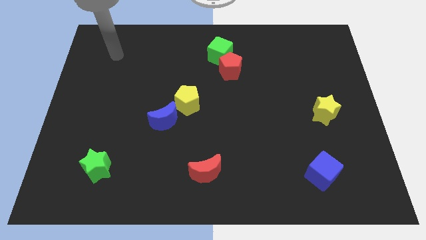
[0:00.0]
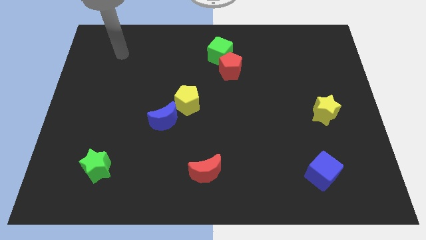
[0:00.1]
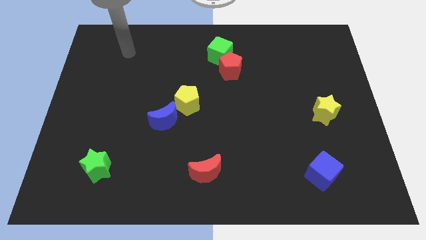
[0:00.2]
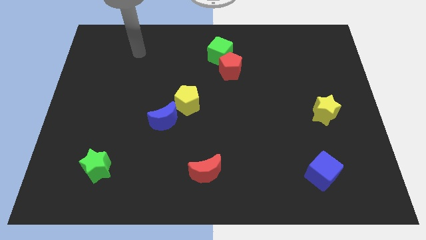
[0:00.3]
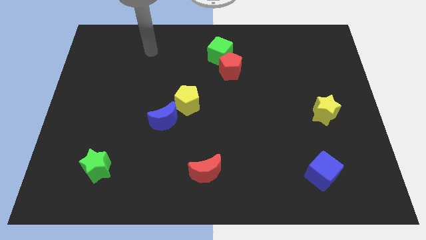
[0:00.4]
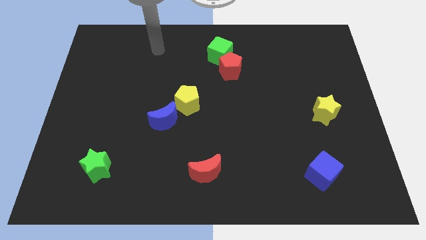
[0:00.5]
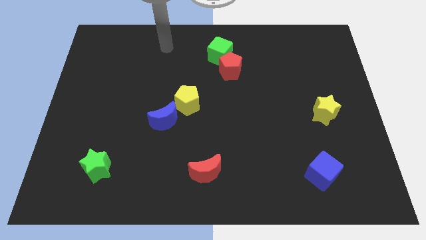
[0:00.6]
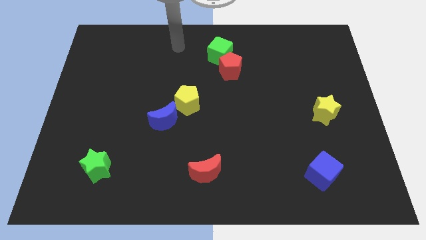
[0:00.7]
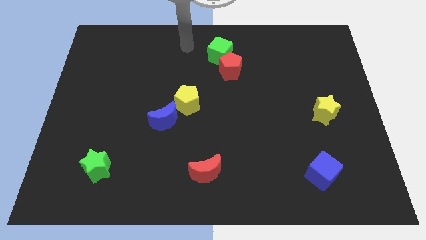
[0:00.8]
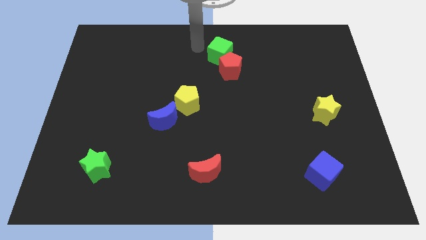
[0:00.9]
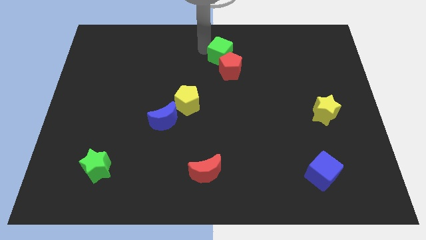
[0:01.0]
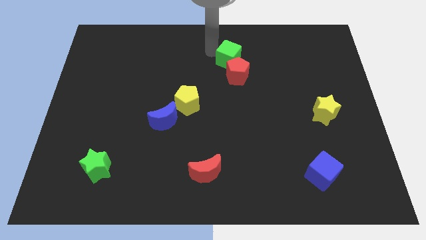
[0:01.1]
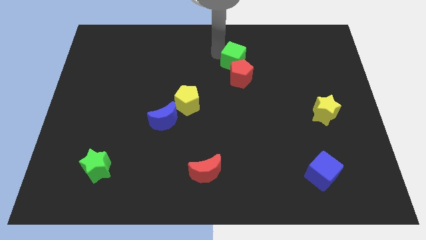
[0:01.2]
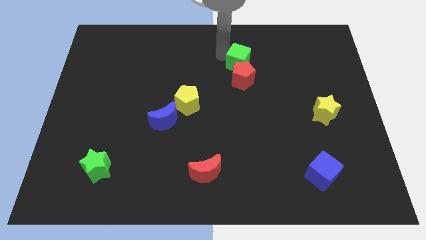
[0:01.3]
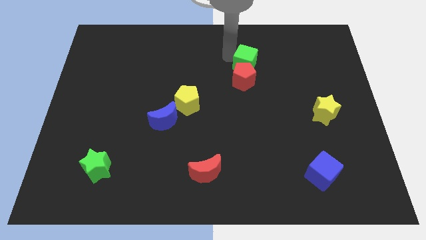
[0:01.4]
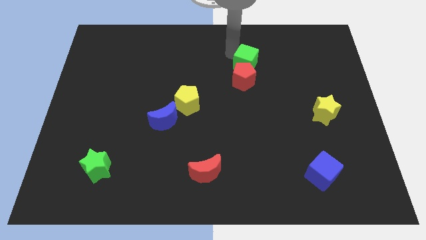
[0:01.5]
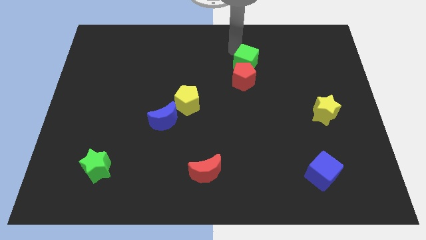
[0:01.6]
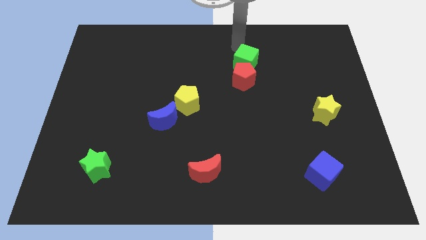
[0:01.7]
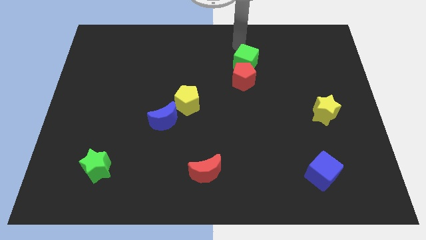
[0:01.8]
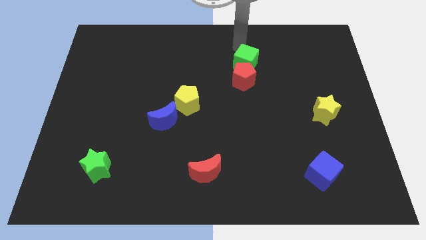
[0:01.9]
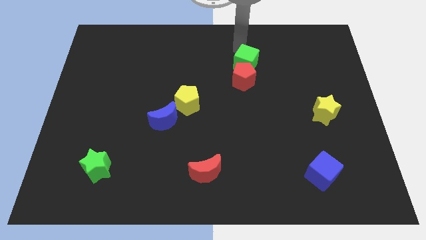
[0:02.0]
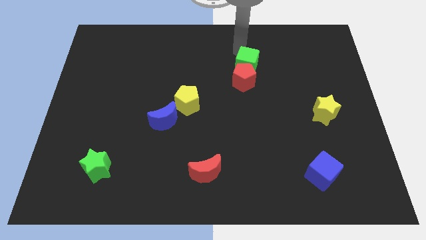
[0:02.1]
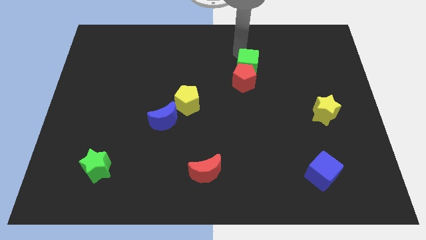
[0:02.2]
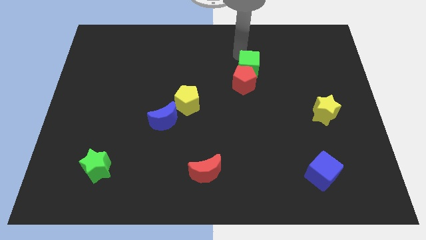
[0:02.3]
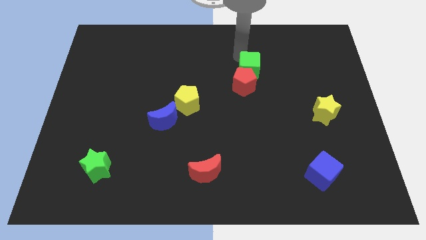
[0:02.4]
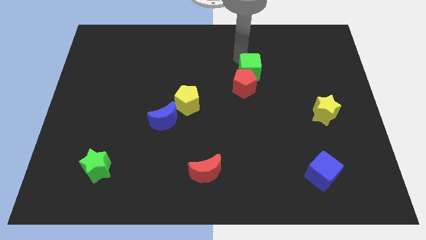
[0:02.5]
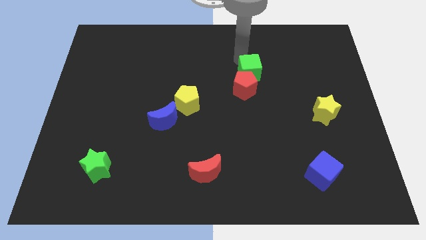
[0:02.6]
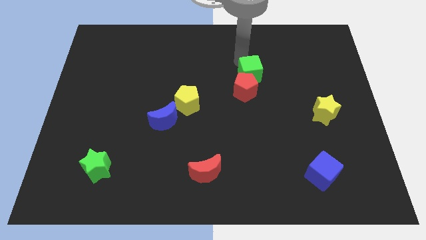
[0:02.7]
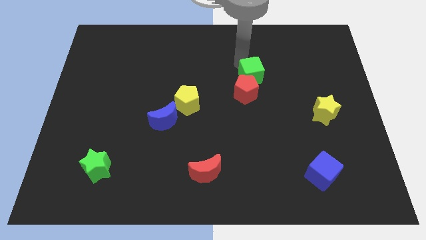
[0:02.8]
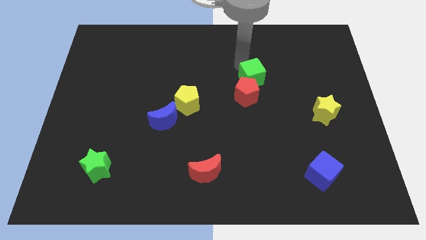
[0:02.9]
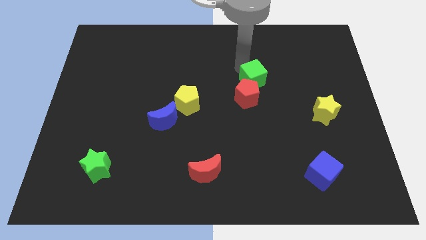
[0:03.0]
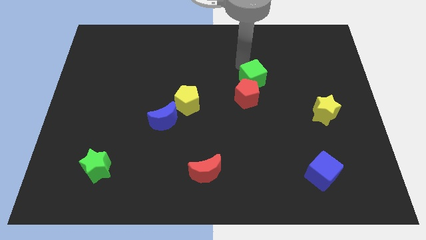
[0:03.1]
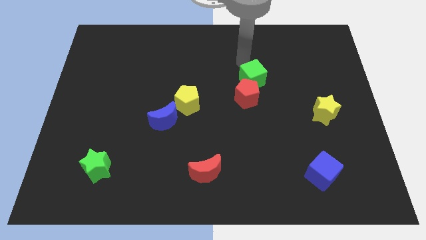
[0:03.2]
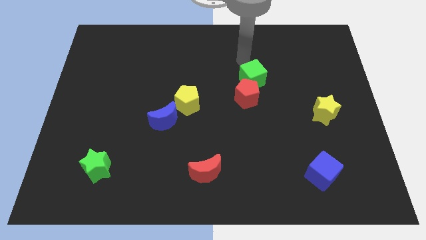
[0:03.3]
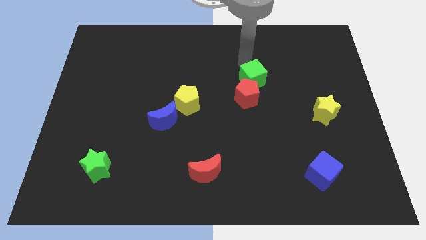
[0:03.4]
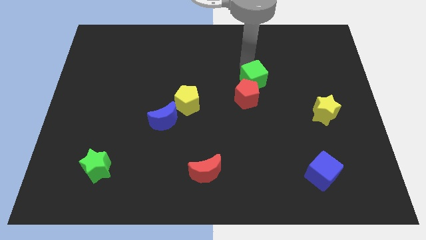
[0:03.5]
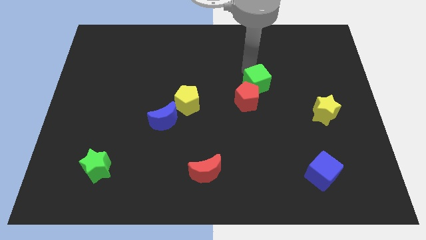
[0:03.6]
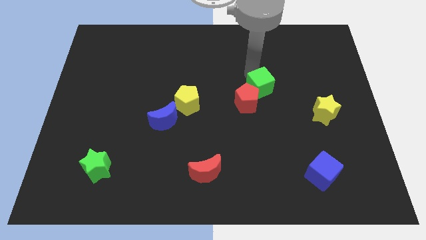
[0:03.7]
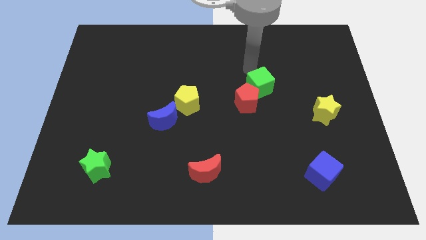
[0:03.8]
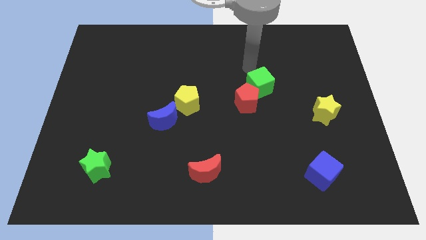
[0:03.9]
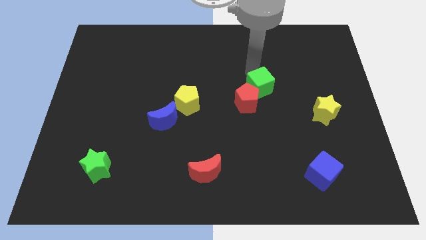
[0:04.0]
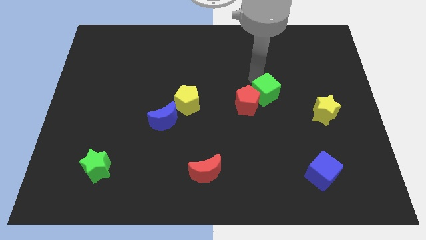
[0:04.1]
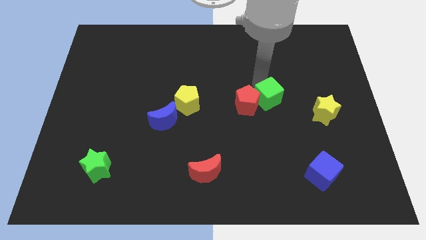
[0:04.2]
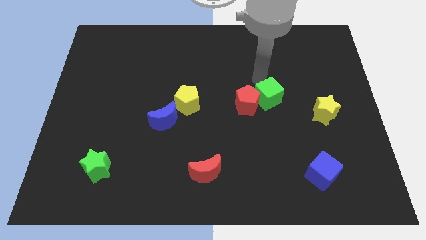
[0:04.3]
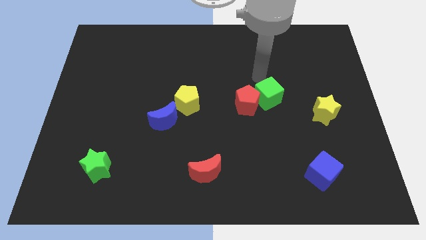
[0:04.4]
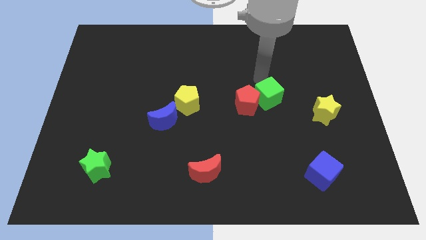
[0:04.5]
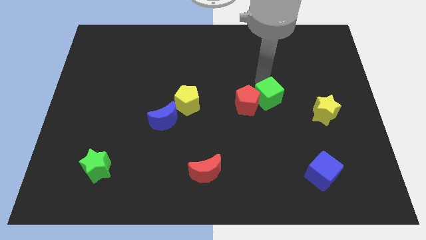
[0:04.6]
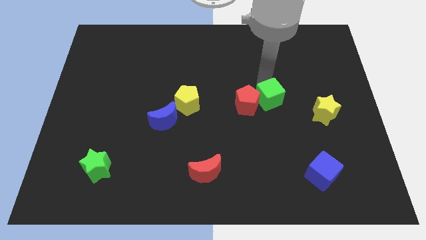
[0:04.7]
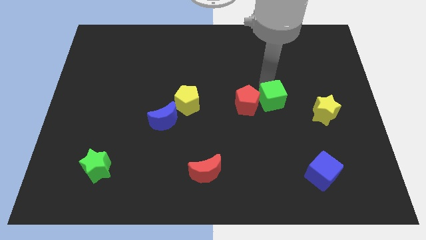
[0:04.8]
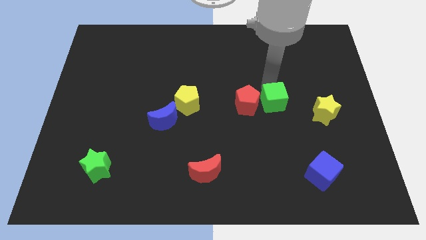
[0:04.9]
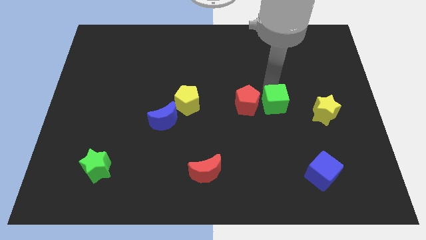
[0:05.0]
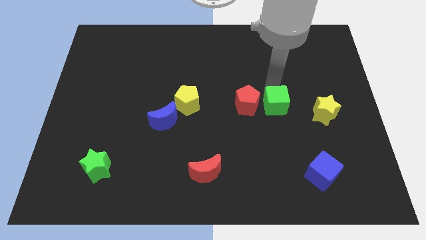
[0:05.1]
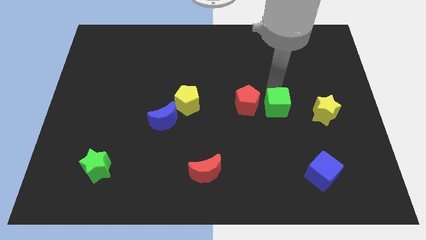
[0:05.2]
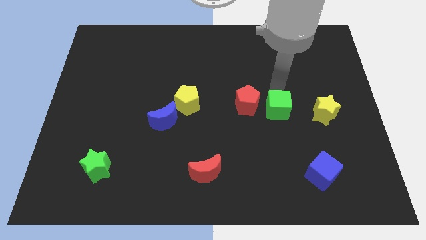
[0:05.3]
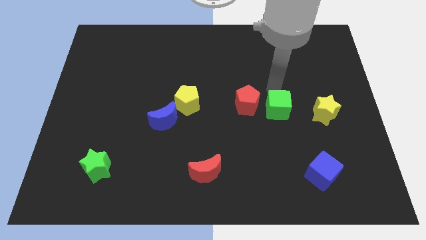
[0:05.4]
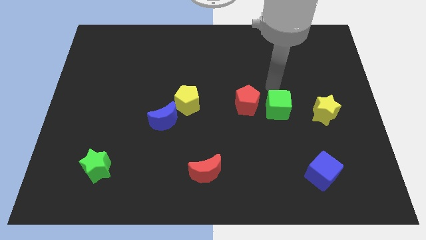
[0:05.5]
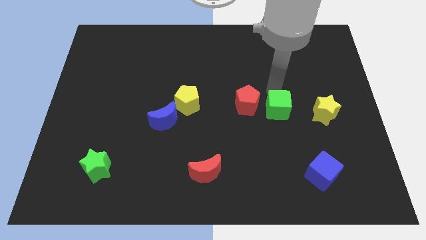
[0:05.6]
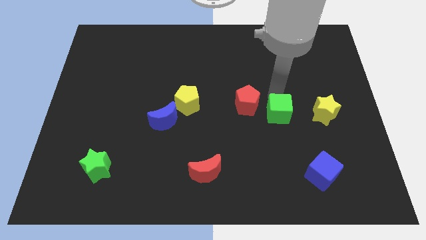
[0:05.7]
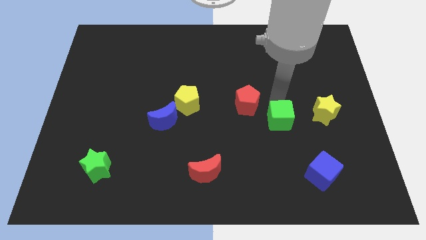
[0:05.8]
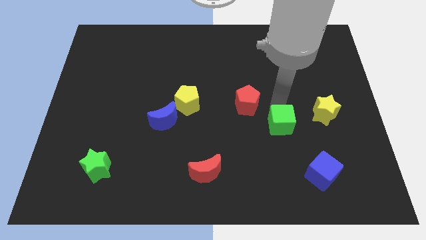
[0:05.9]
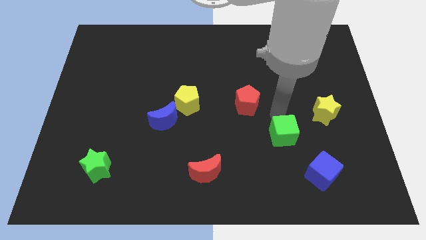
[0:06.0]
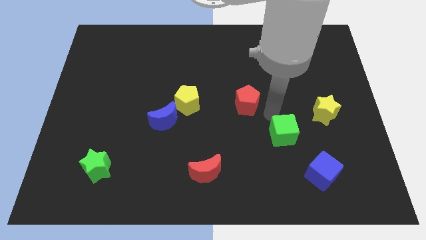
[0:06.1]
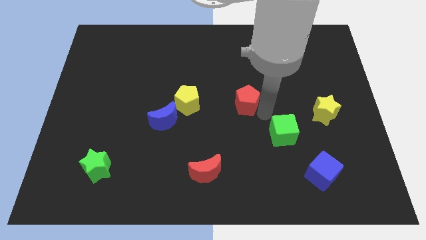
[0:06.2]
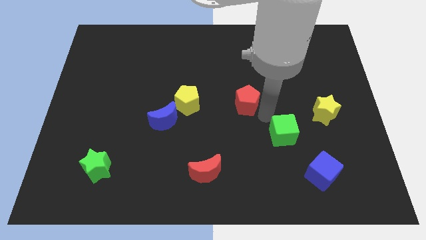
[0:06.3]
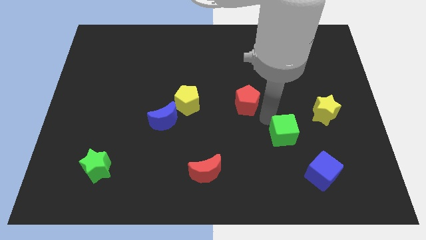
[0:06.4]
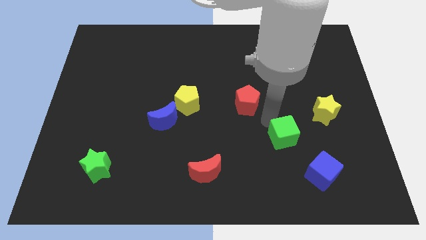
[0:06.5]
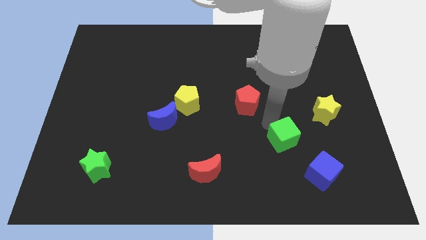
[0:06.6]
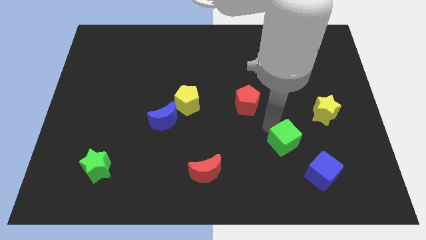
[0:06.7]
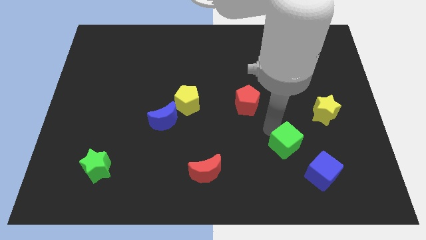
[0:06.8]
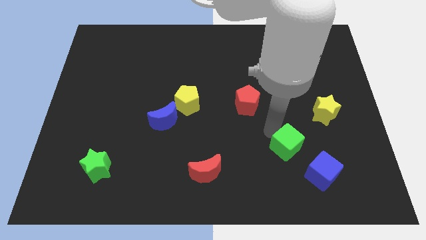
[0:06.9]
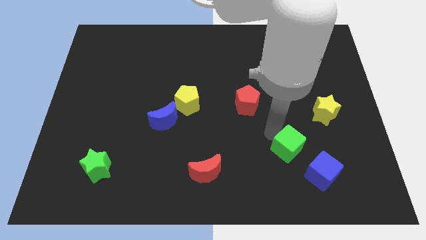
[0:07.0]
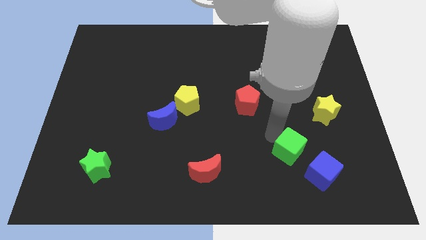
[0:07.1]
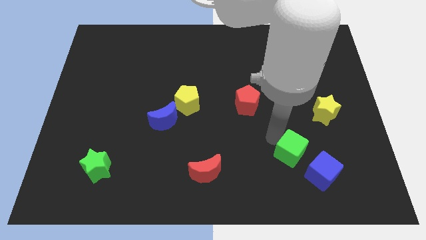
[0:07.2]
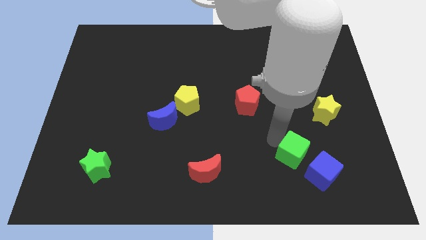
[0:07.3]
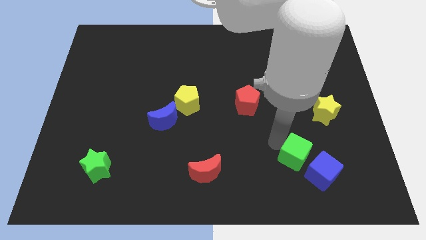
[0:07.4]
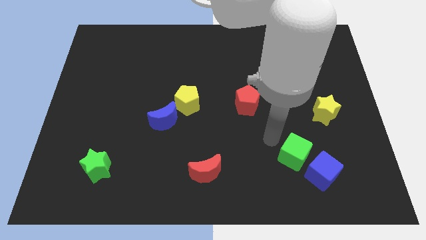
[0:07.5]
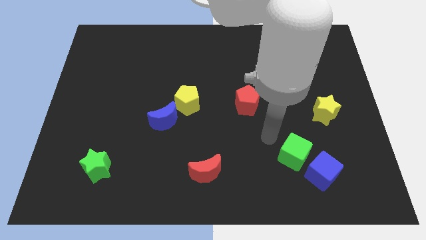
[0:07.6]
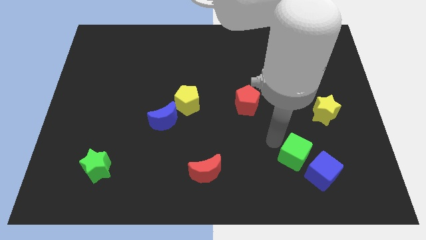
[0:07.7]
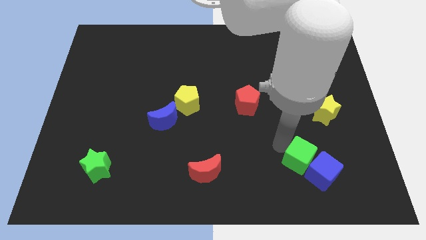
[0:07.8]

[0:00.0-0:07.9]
push the green cube close to the blue cube
